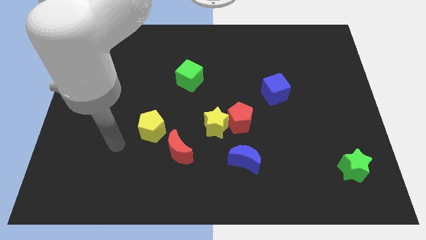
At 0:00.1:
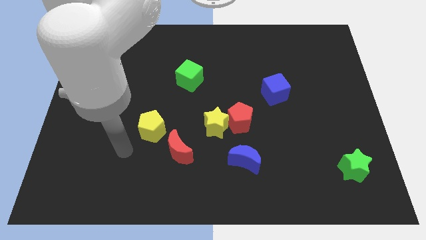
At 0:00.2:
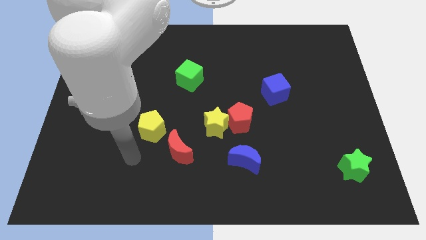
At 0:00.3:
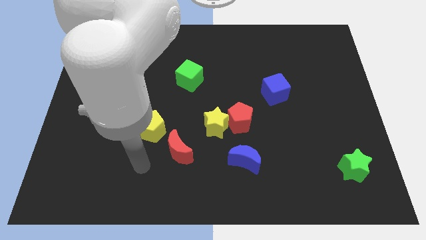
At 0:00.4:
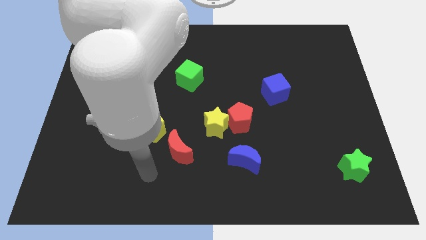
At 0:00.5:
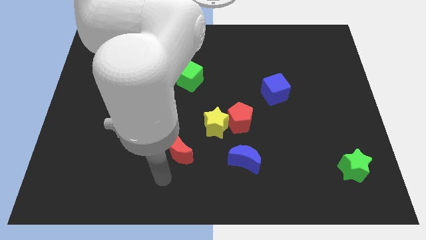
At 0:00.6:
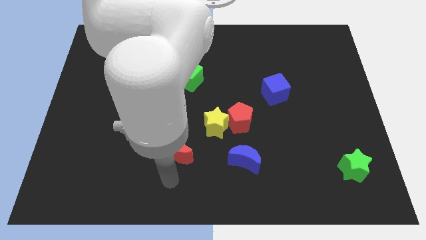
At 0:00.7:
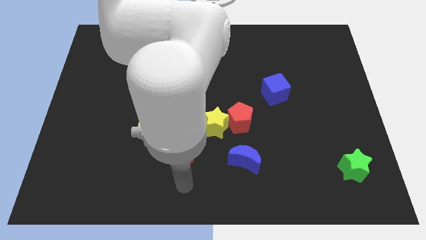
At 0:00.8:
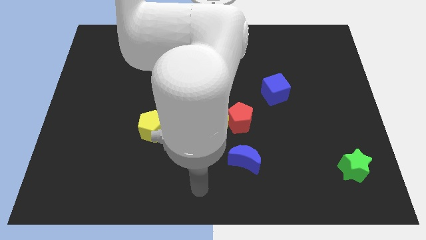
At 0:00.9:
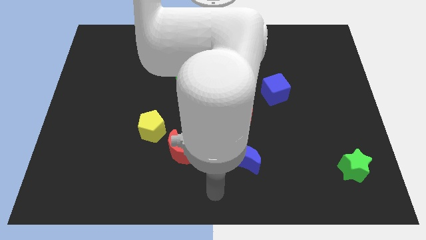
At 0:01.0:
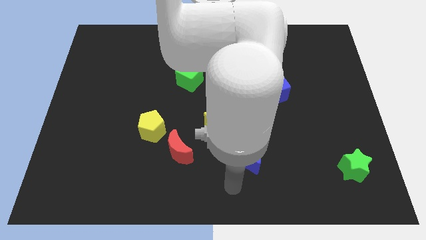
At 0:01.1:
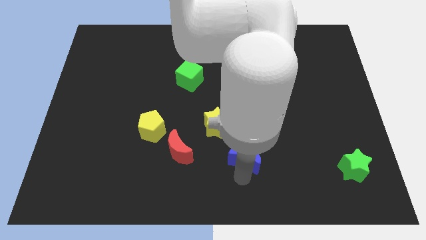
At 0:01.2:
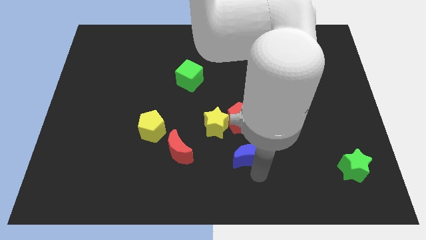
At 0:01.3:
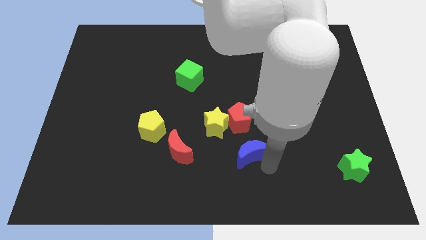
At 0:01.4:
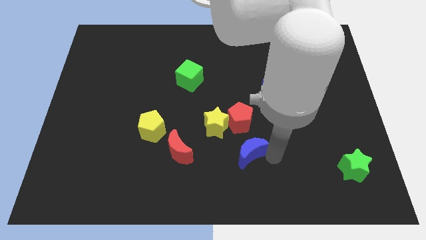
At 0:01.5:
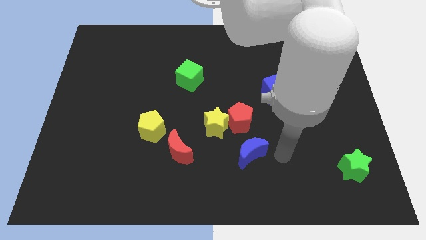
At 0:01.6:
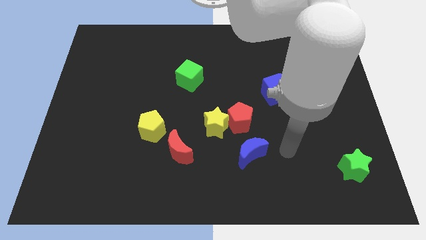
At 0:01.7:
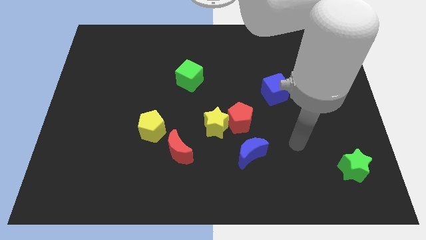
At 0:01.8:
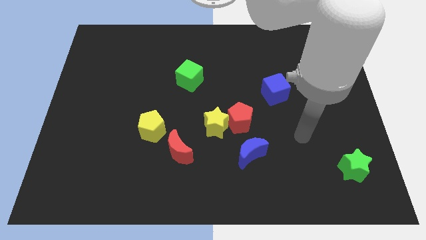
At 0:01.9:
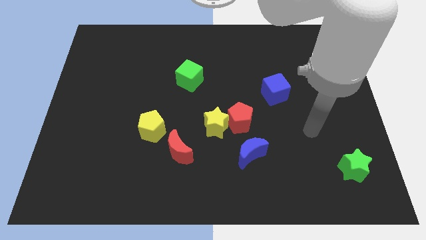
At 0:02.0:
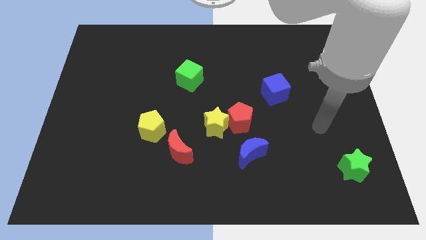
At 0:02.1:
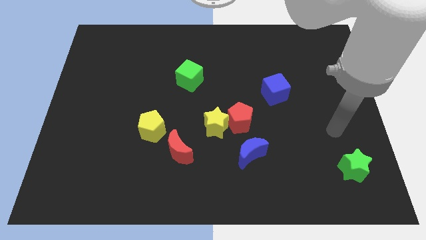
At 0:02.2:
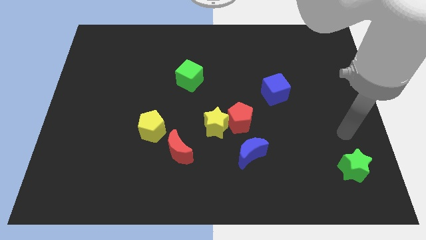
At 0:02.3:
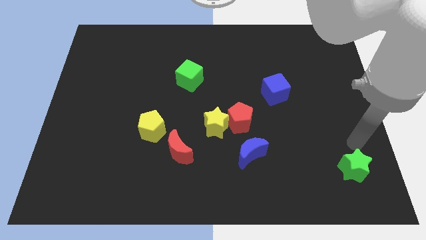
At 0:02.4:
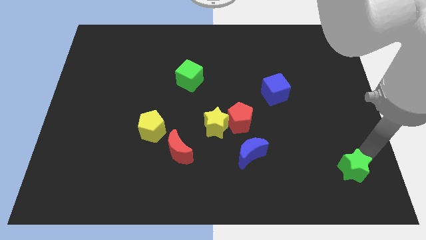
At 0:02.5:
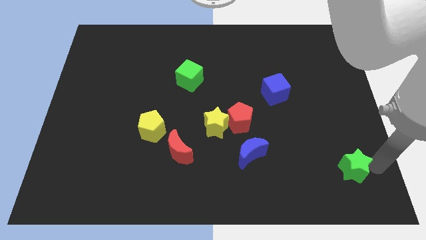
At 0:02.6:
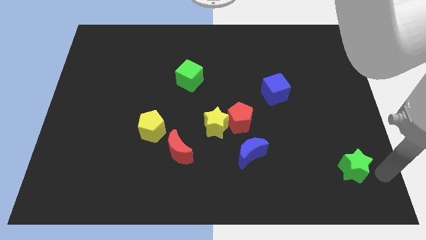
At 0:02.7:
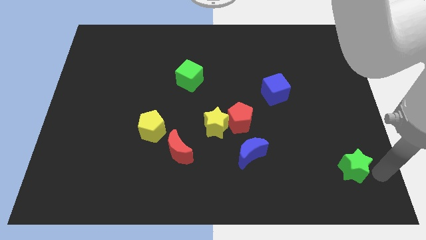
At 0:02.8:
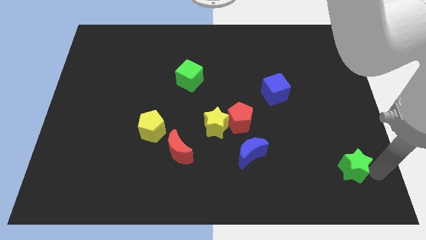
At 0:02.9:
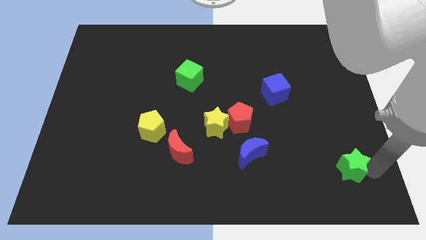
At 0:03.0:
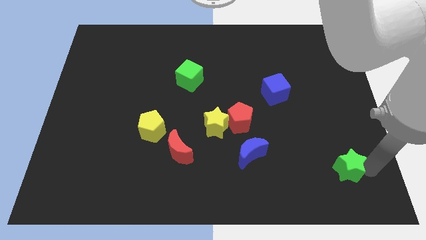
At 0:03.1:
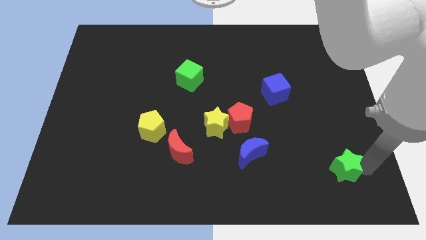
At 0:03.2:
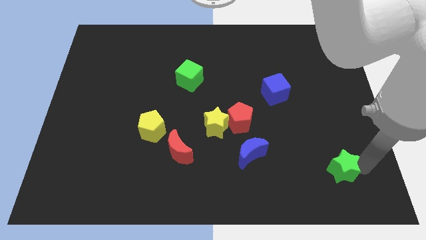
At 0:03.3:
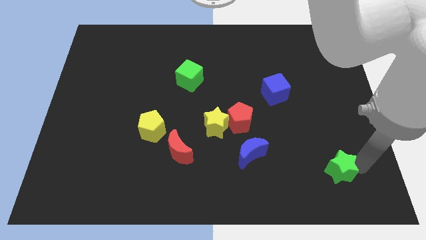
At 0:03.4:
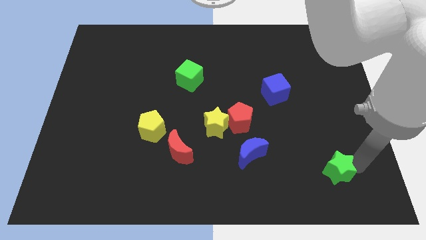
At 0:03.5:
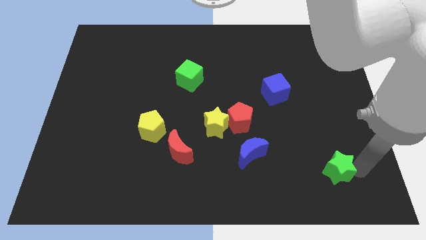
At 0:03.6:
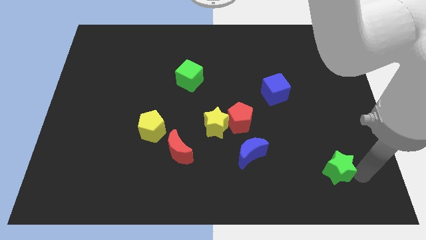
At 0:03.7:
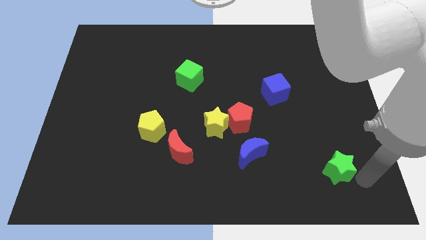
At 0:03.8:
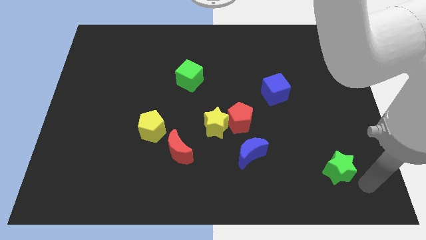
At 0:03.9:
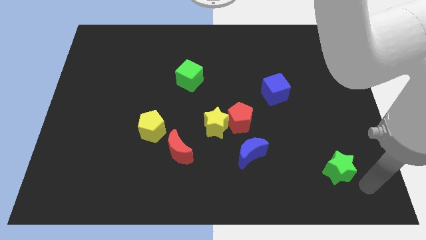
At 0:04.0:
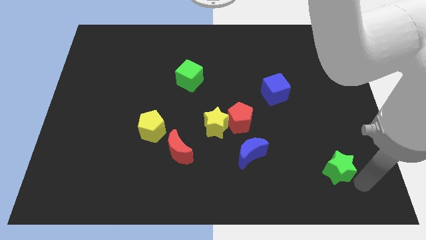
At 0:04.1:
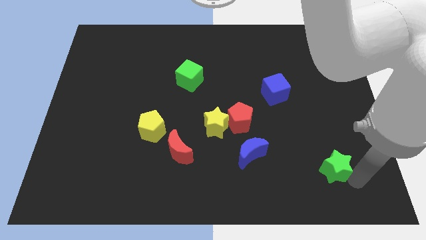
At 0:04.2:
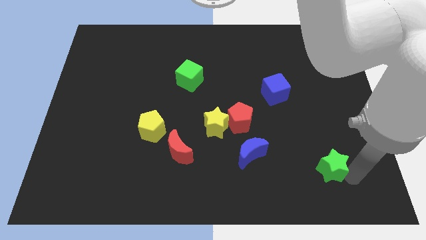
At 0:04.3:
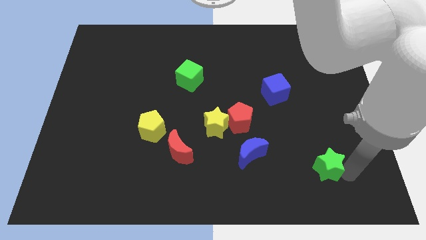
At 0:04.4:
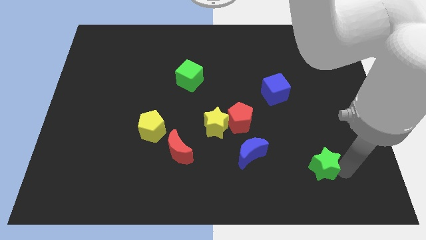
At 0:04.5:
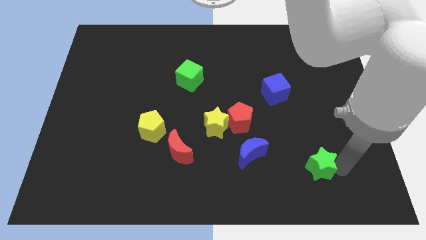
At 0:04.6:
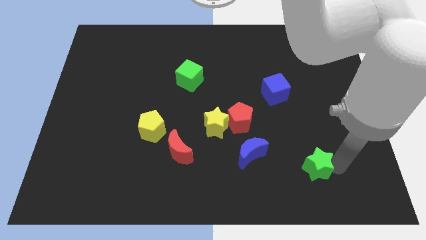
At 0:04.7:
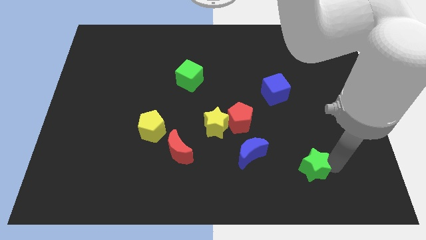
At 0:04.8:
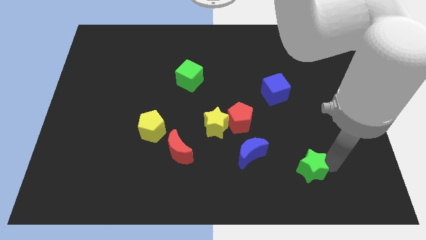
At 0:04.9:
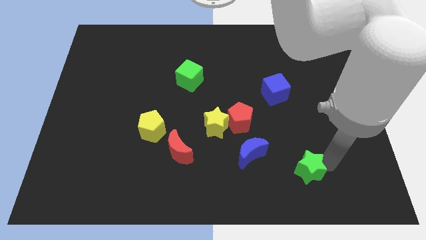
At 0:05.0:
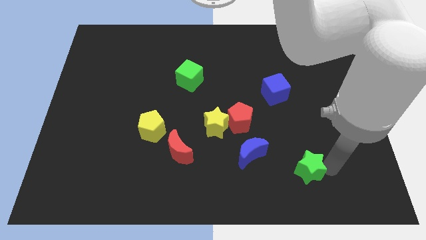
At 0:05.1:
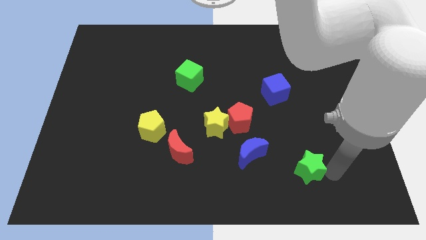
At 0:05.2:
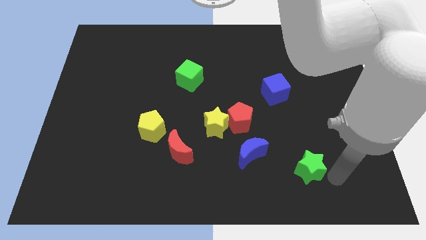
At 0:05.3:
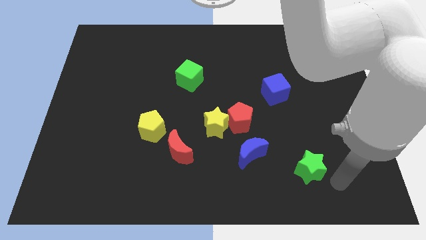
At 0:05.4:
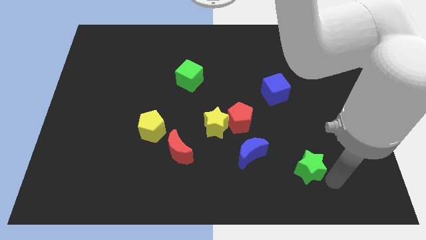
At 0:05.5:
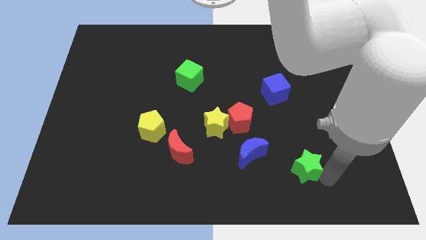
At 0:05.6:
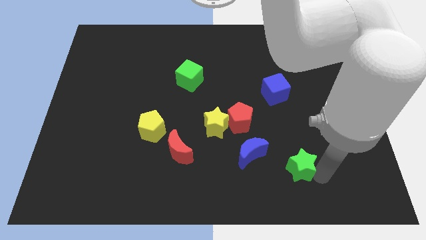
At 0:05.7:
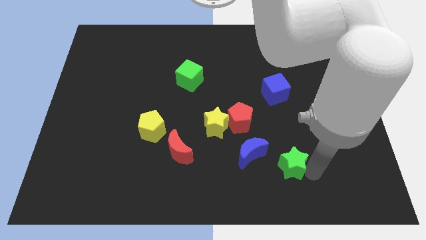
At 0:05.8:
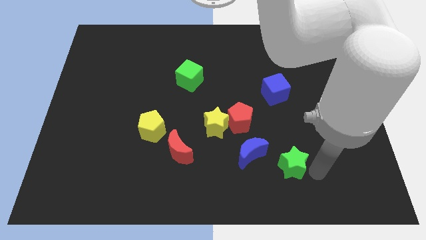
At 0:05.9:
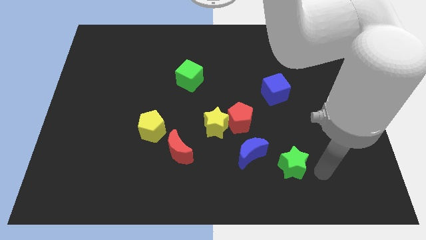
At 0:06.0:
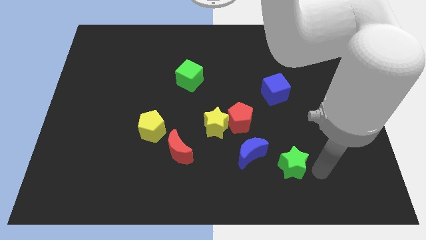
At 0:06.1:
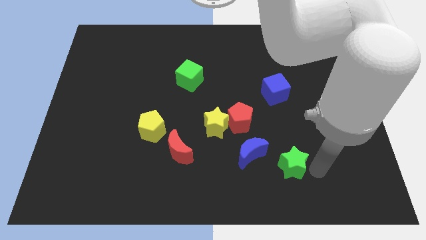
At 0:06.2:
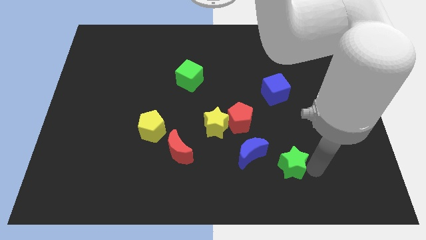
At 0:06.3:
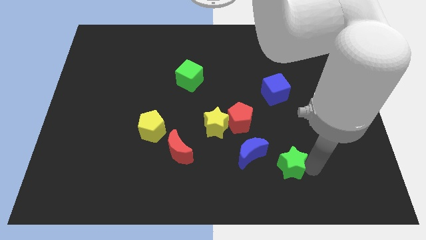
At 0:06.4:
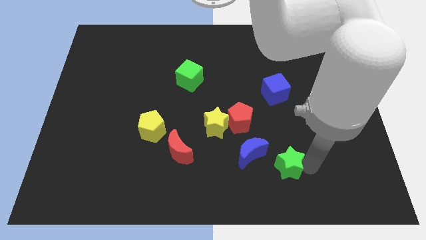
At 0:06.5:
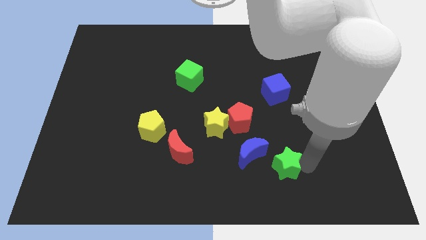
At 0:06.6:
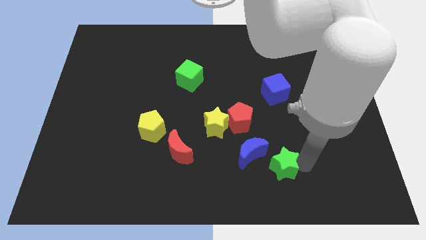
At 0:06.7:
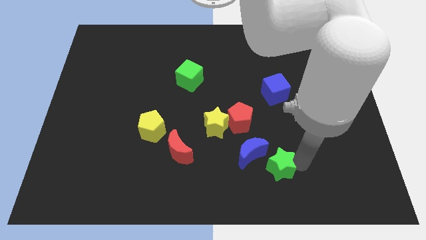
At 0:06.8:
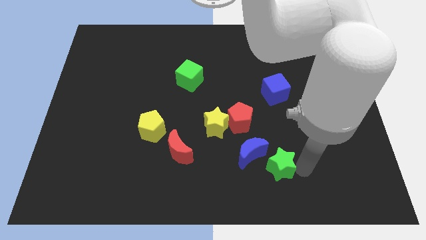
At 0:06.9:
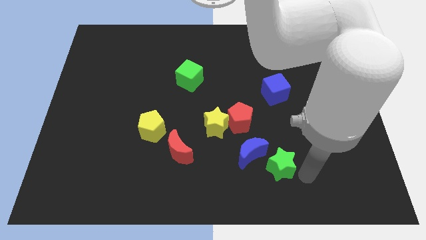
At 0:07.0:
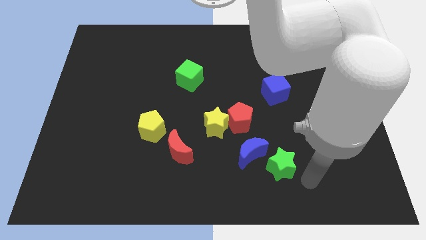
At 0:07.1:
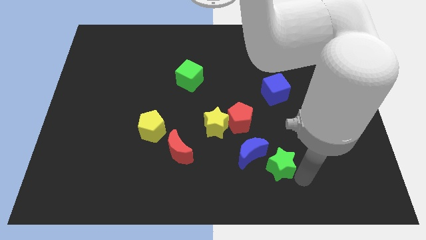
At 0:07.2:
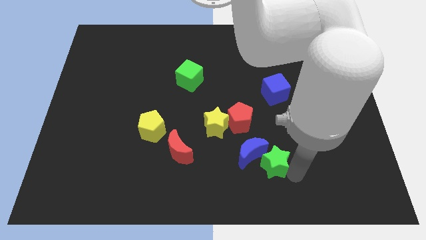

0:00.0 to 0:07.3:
put the green star next to the blue moon
